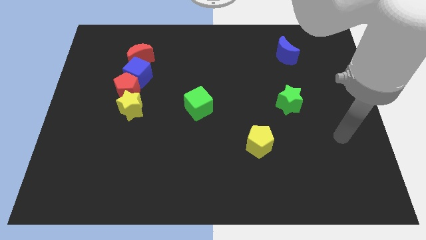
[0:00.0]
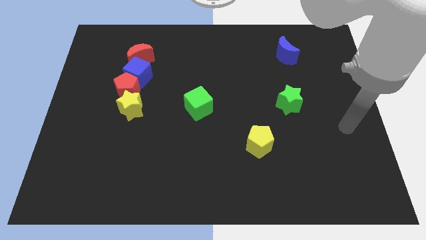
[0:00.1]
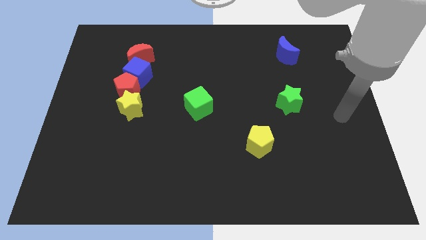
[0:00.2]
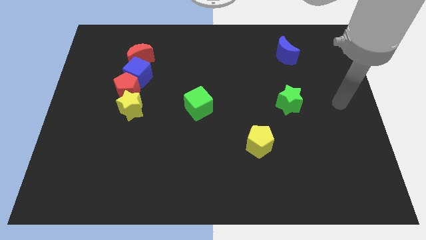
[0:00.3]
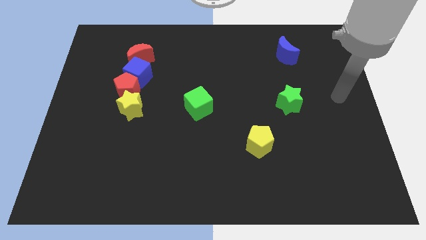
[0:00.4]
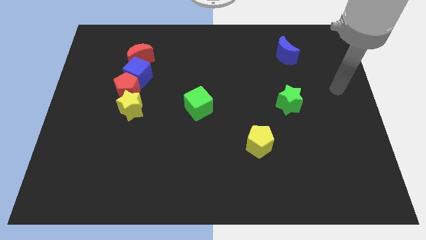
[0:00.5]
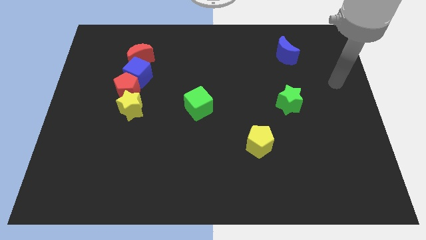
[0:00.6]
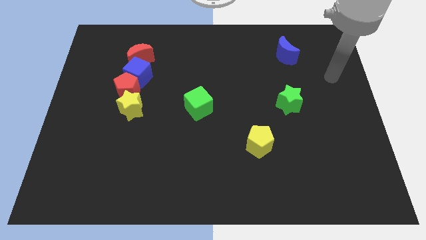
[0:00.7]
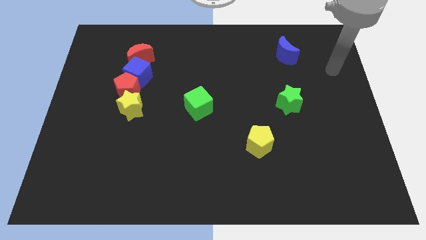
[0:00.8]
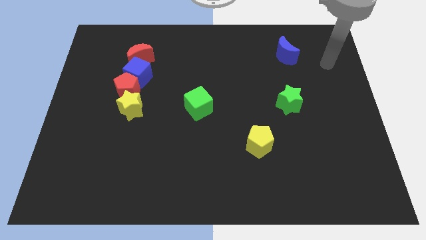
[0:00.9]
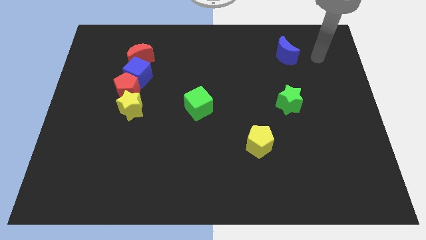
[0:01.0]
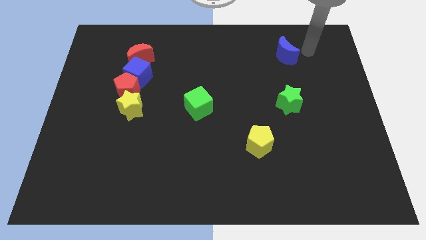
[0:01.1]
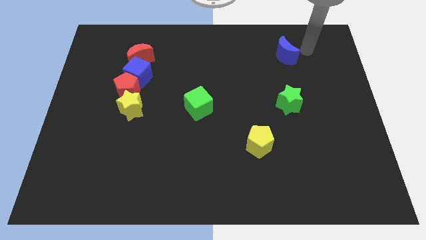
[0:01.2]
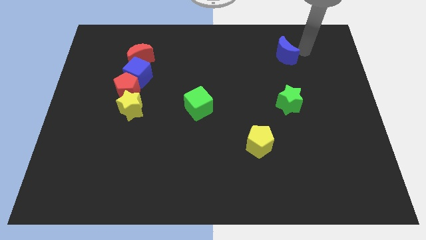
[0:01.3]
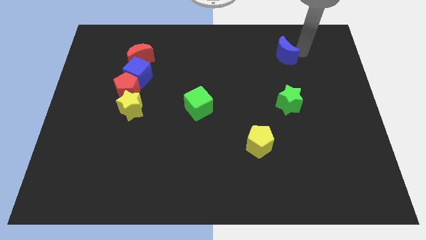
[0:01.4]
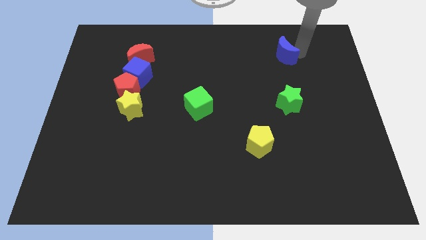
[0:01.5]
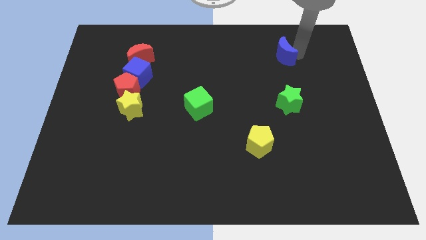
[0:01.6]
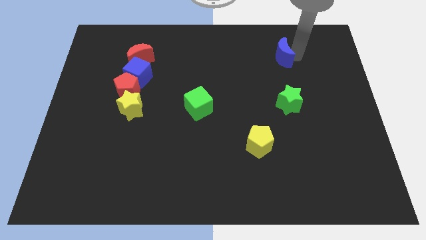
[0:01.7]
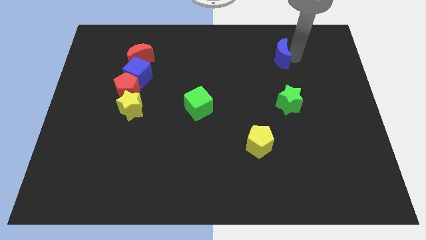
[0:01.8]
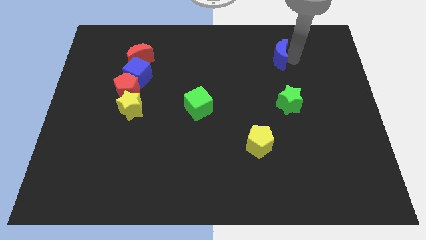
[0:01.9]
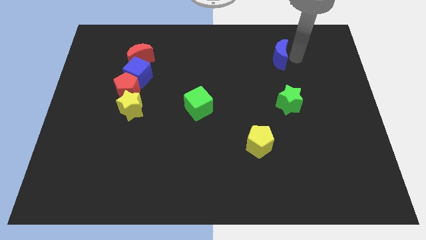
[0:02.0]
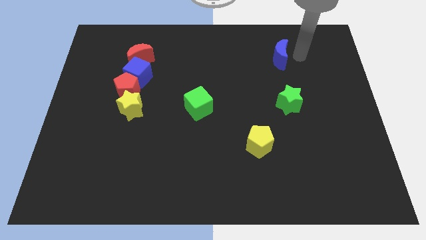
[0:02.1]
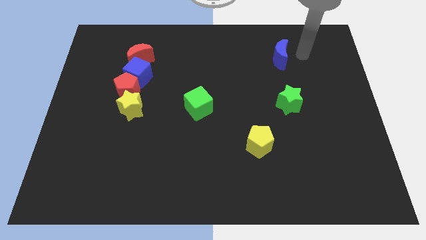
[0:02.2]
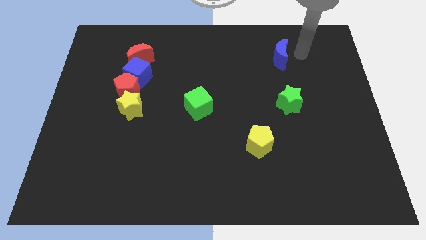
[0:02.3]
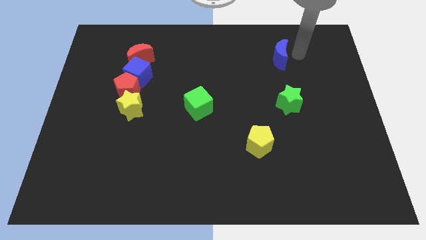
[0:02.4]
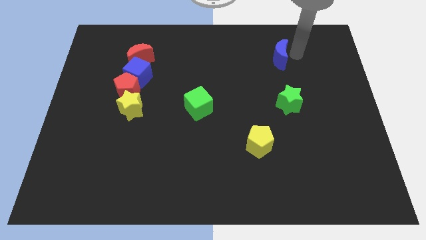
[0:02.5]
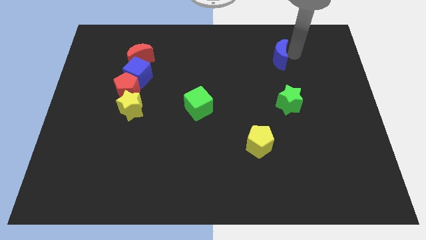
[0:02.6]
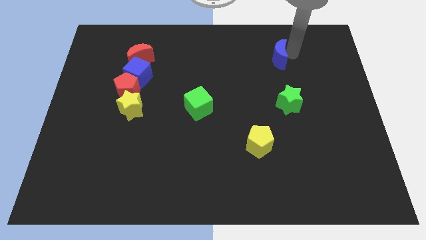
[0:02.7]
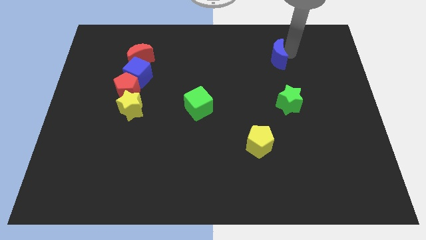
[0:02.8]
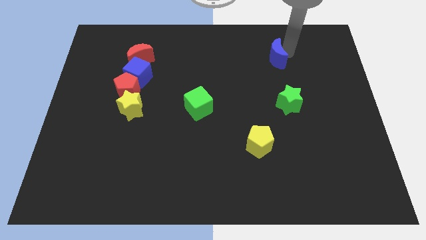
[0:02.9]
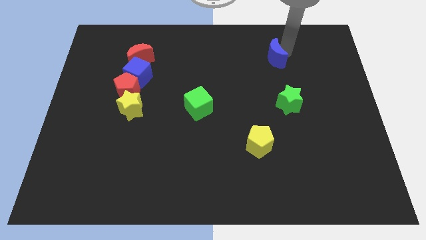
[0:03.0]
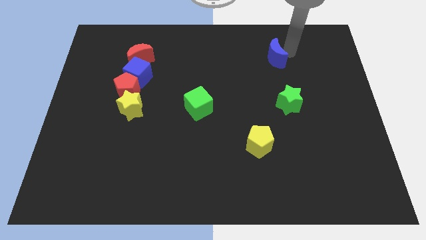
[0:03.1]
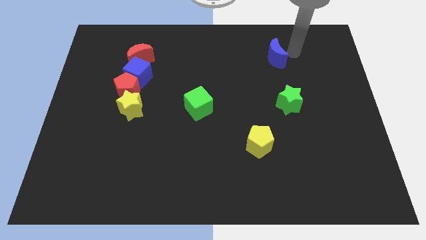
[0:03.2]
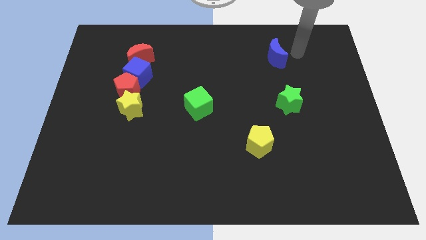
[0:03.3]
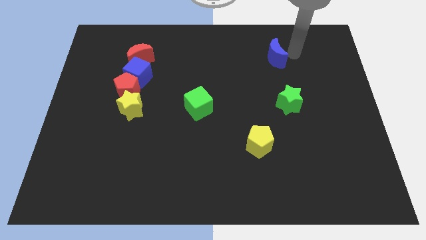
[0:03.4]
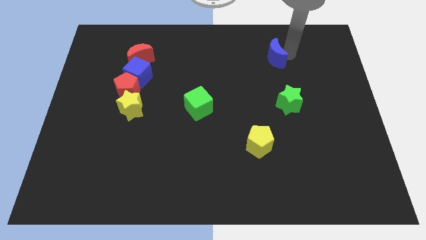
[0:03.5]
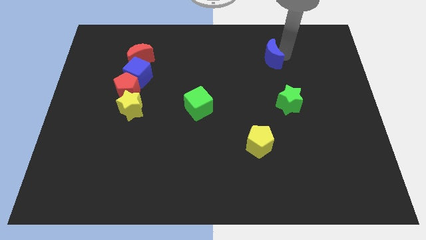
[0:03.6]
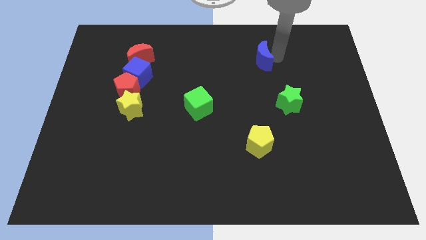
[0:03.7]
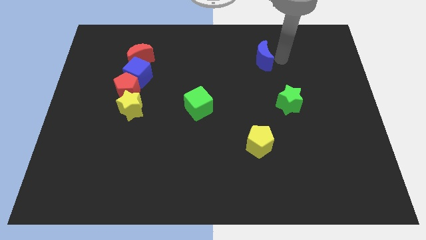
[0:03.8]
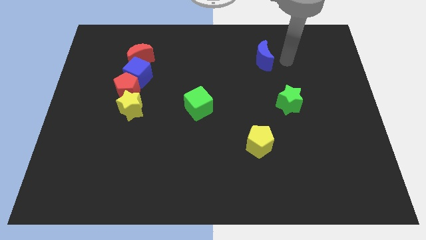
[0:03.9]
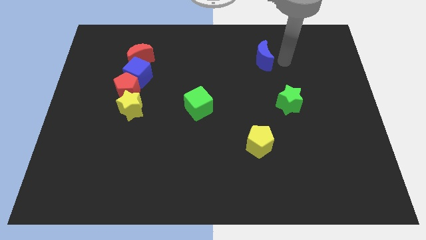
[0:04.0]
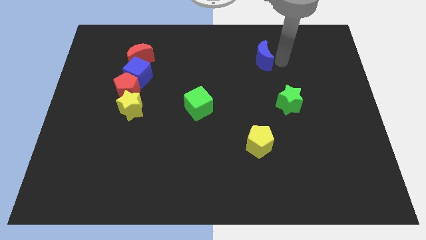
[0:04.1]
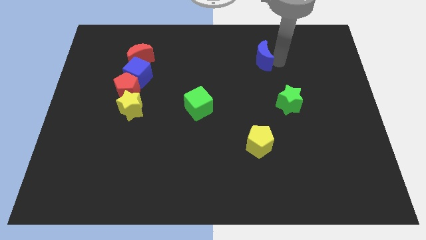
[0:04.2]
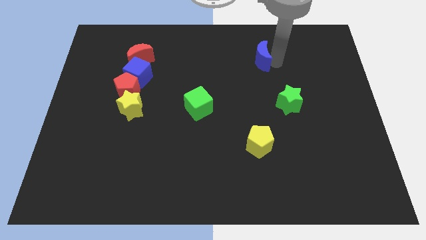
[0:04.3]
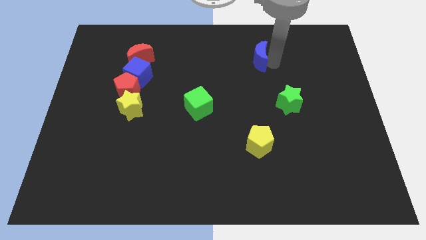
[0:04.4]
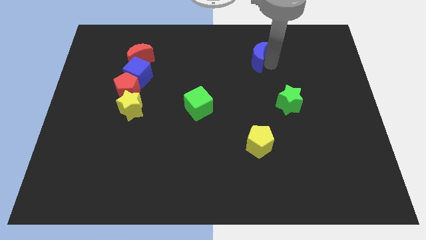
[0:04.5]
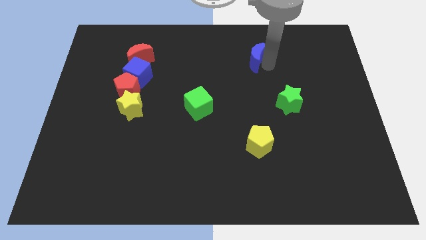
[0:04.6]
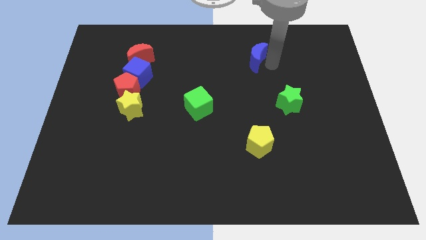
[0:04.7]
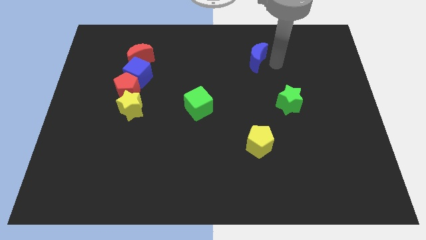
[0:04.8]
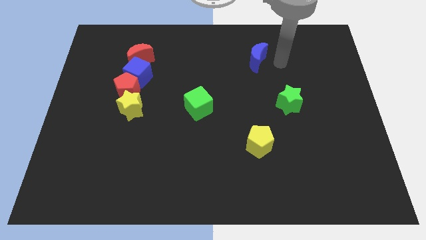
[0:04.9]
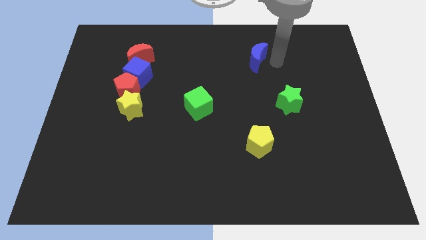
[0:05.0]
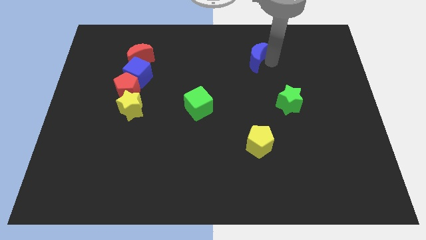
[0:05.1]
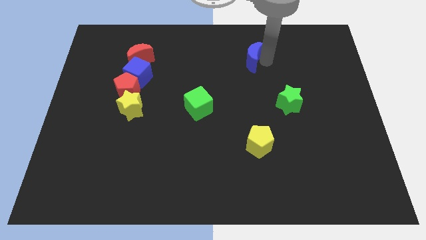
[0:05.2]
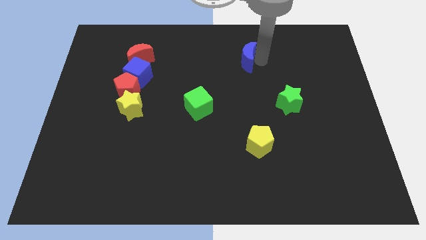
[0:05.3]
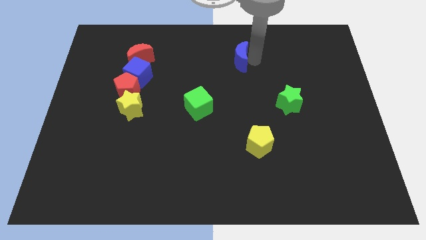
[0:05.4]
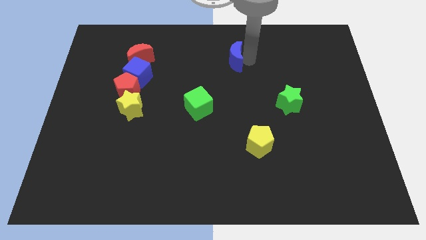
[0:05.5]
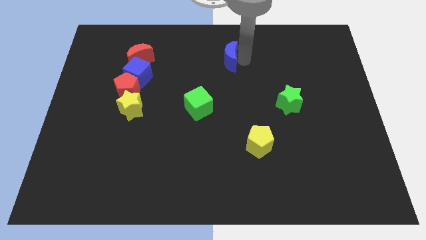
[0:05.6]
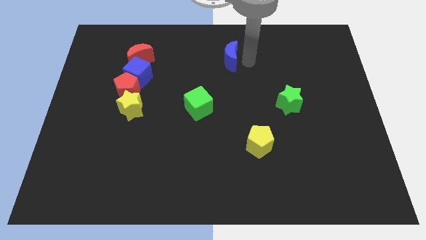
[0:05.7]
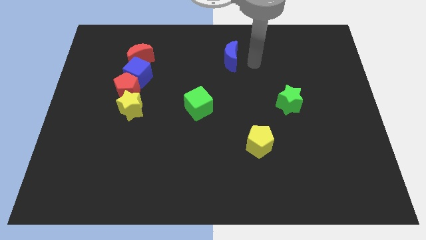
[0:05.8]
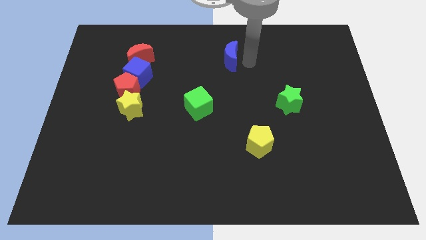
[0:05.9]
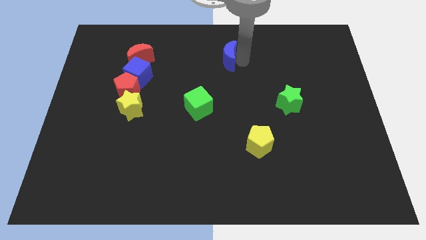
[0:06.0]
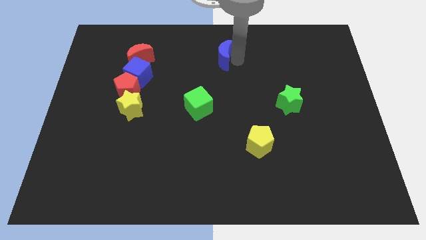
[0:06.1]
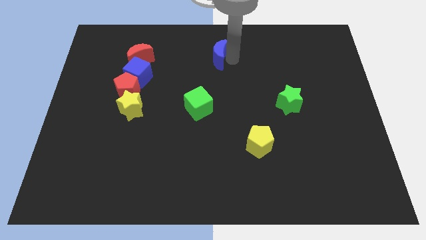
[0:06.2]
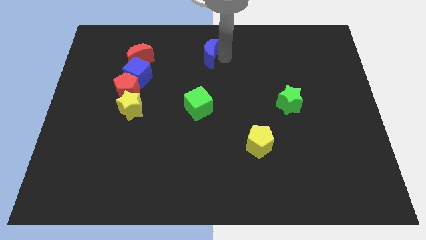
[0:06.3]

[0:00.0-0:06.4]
push the blue moon left

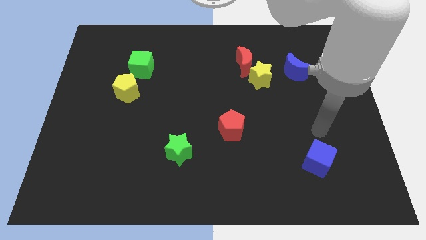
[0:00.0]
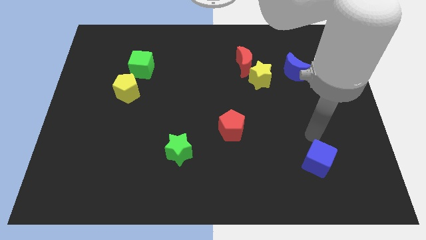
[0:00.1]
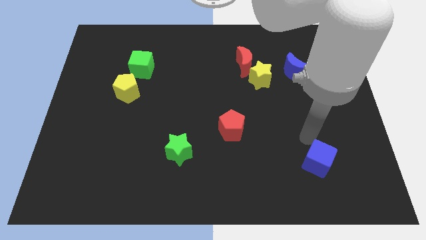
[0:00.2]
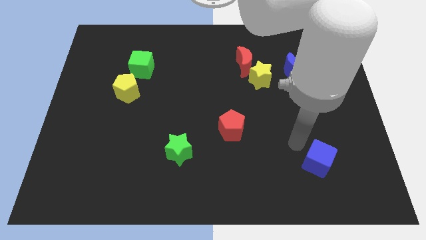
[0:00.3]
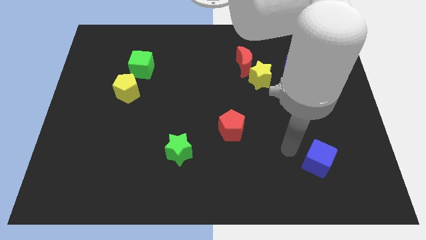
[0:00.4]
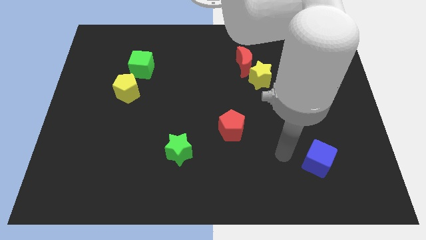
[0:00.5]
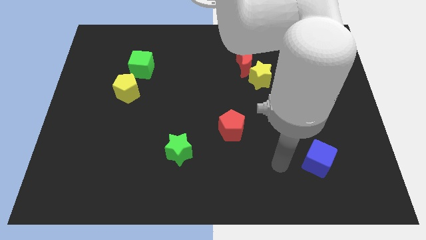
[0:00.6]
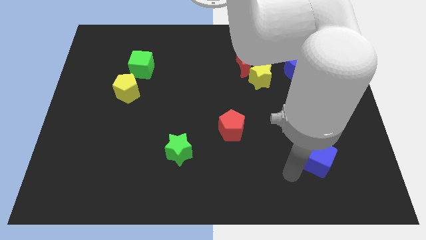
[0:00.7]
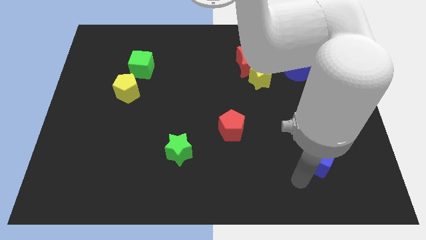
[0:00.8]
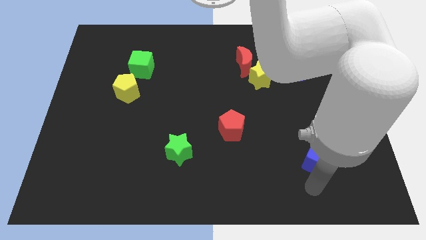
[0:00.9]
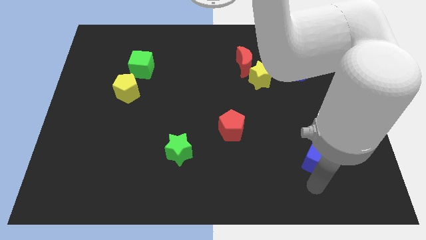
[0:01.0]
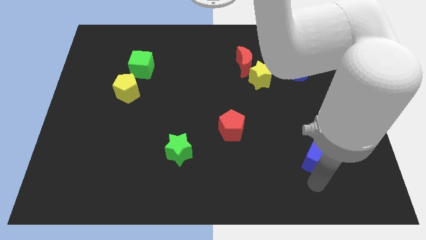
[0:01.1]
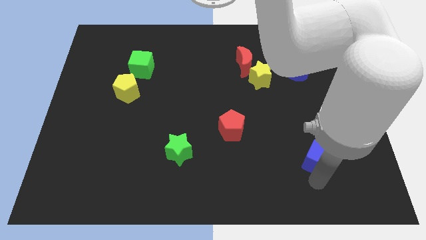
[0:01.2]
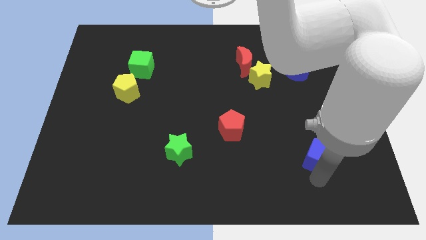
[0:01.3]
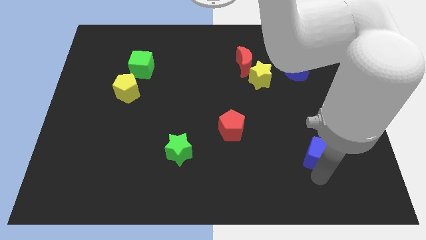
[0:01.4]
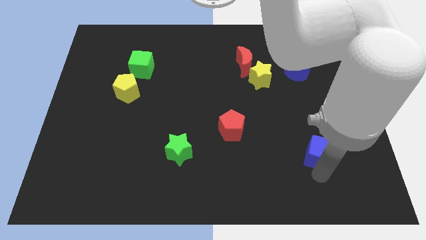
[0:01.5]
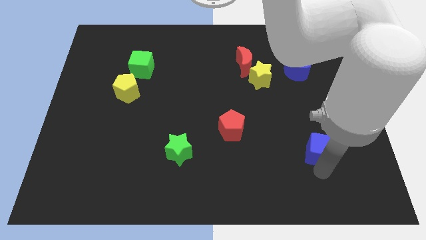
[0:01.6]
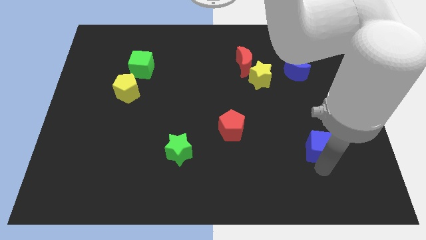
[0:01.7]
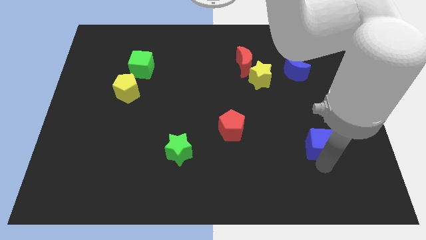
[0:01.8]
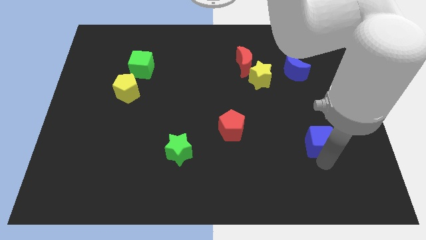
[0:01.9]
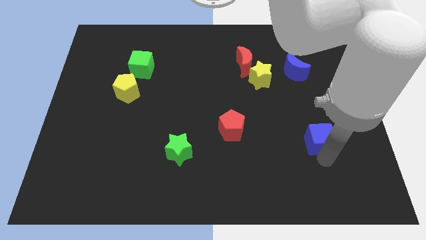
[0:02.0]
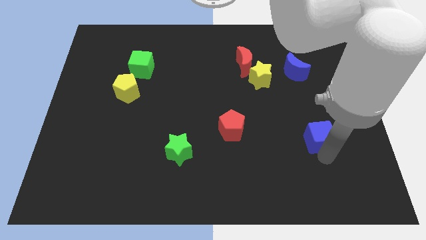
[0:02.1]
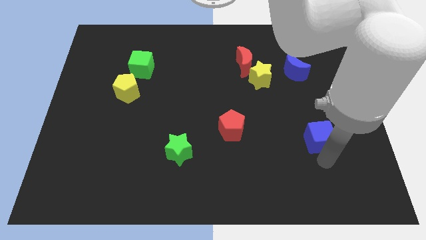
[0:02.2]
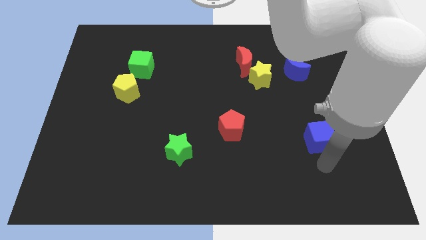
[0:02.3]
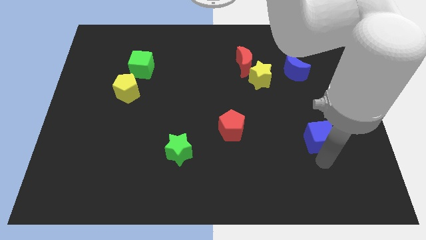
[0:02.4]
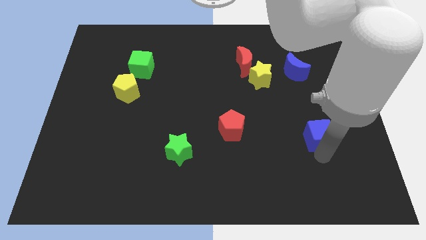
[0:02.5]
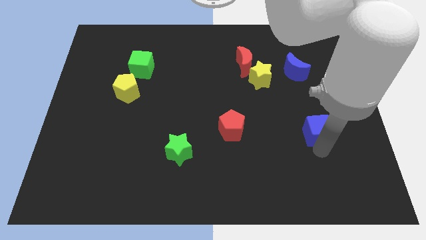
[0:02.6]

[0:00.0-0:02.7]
slightly slide the blue cube upwards
